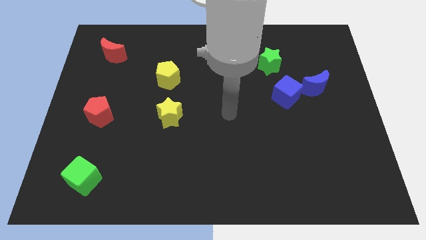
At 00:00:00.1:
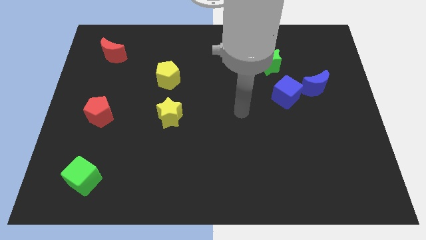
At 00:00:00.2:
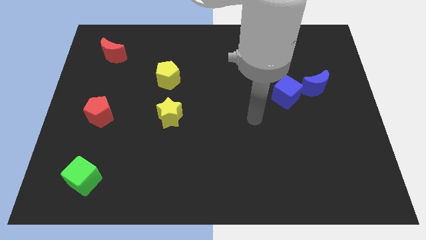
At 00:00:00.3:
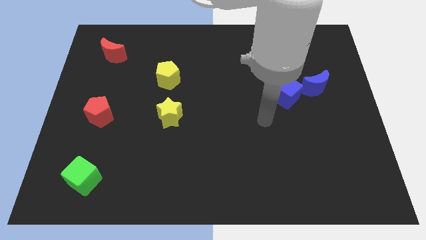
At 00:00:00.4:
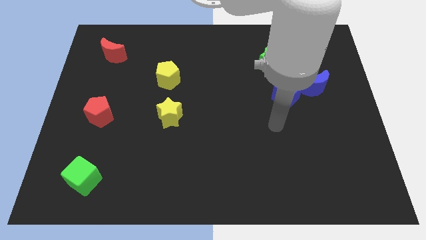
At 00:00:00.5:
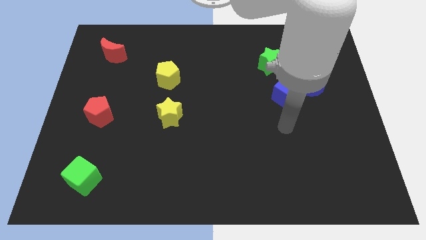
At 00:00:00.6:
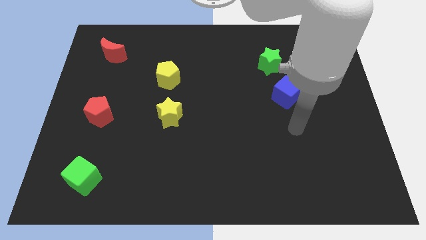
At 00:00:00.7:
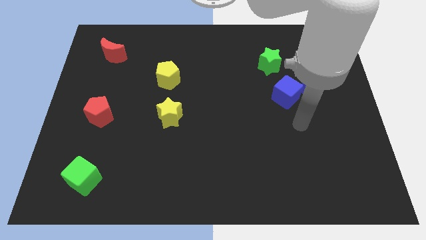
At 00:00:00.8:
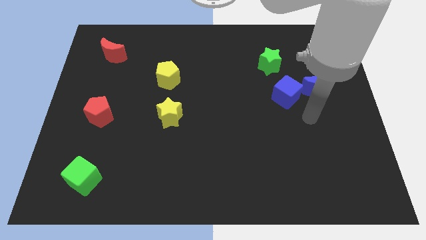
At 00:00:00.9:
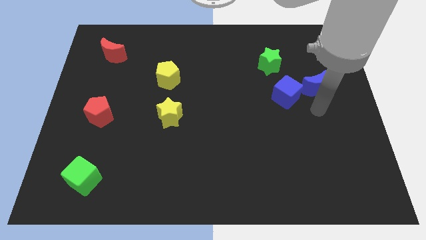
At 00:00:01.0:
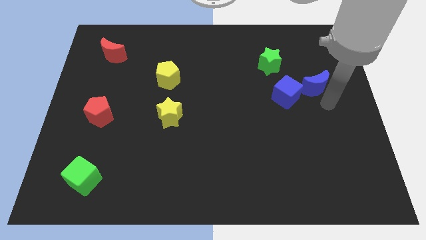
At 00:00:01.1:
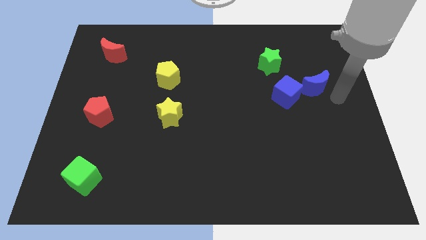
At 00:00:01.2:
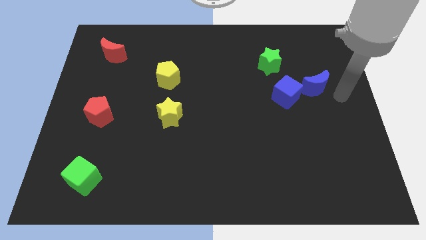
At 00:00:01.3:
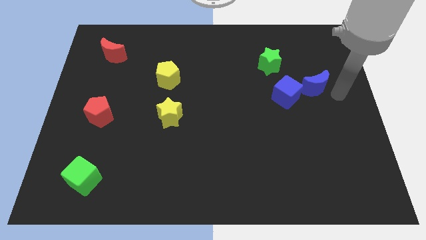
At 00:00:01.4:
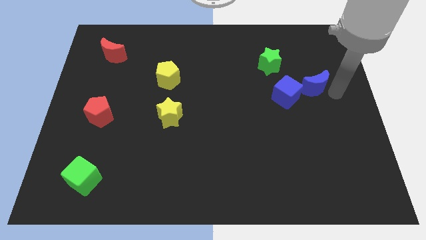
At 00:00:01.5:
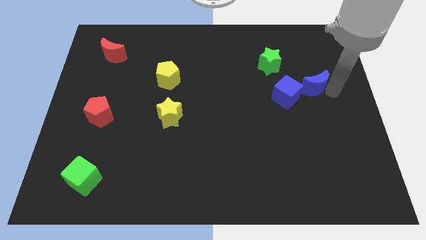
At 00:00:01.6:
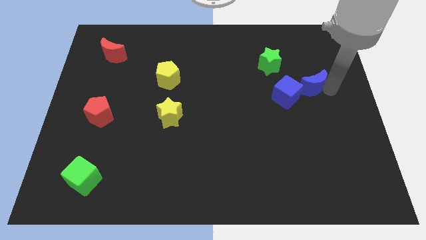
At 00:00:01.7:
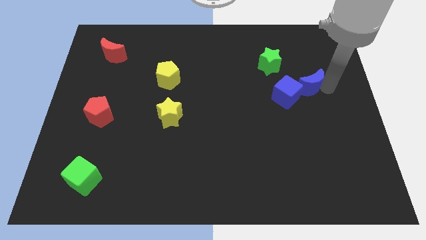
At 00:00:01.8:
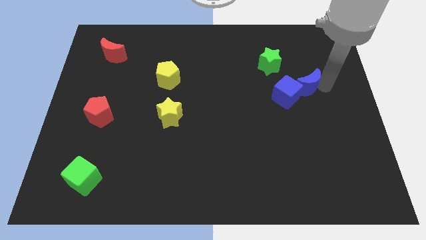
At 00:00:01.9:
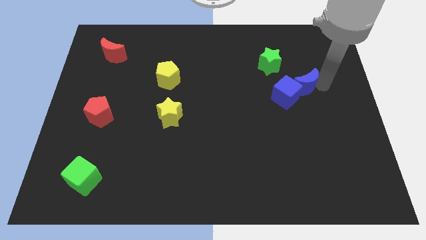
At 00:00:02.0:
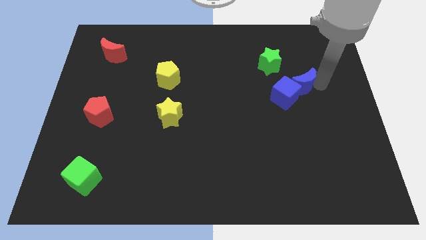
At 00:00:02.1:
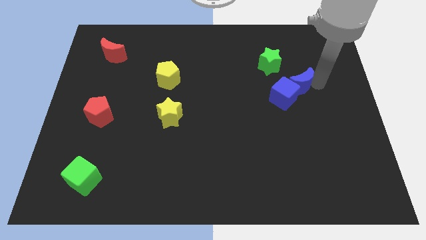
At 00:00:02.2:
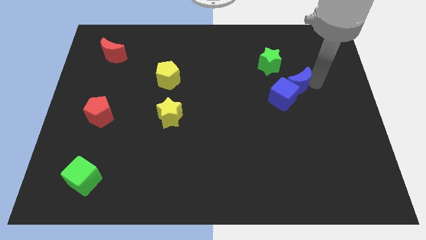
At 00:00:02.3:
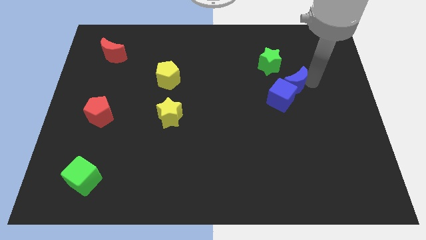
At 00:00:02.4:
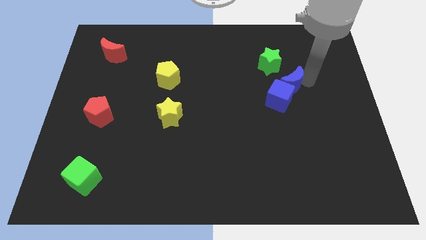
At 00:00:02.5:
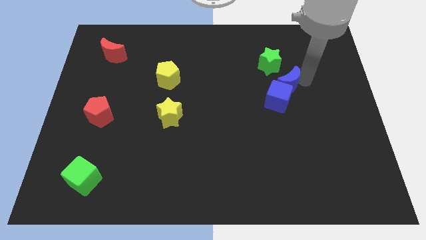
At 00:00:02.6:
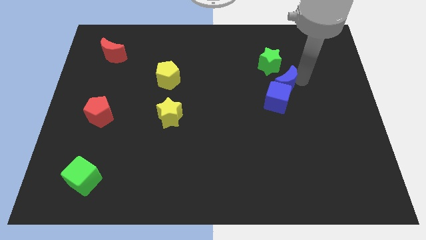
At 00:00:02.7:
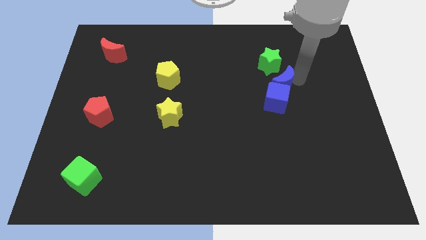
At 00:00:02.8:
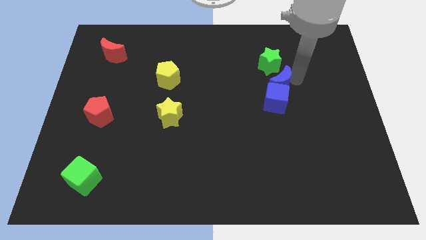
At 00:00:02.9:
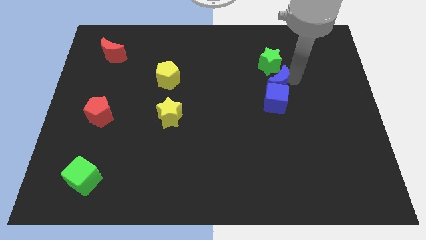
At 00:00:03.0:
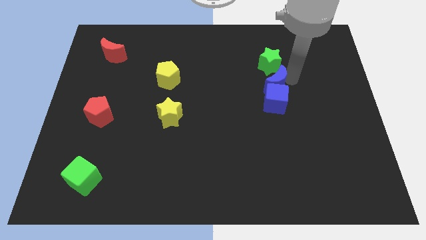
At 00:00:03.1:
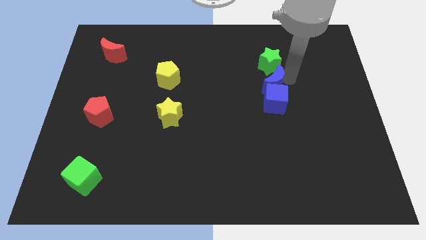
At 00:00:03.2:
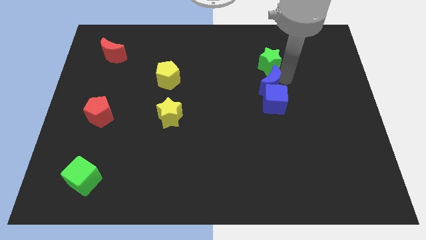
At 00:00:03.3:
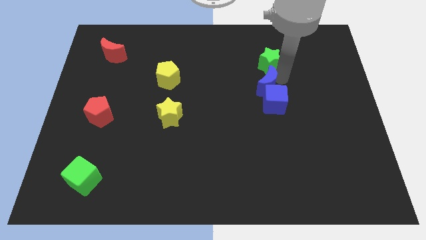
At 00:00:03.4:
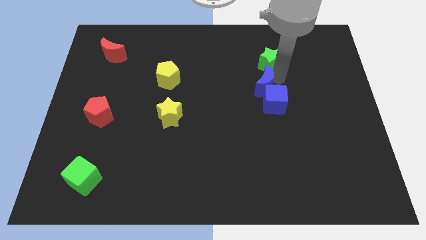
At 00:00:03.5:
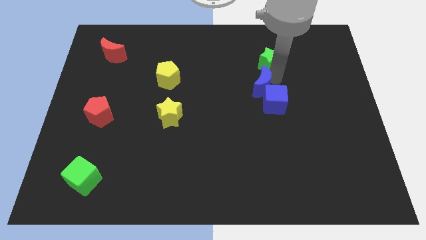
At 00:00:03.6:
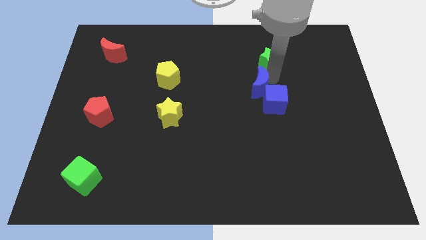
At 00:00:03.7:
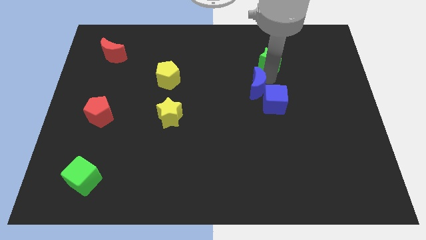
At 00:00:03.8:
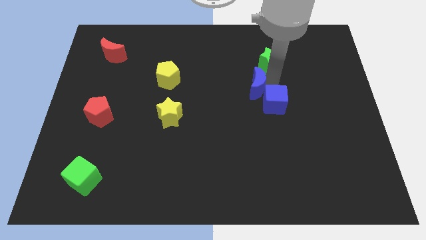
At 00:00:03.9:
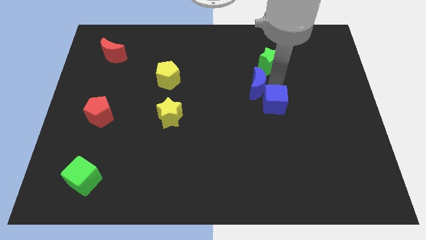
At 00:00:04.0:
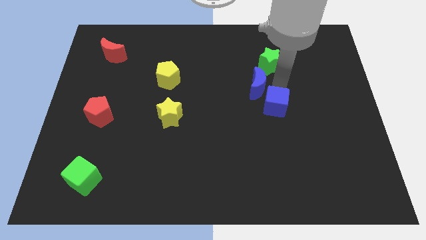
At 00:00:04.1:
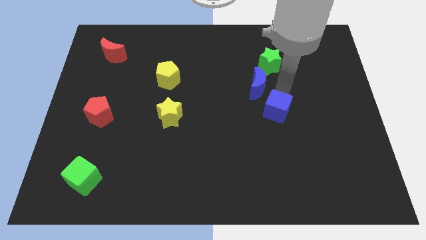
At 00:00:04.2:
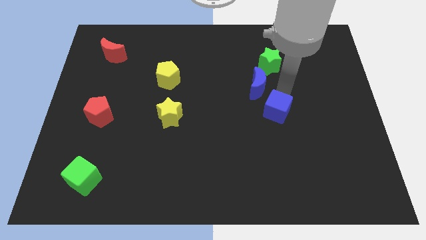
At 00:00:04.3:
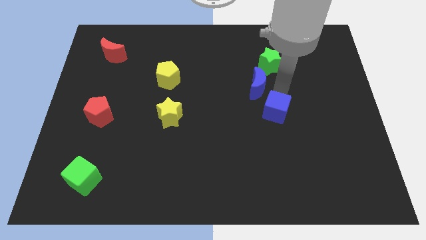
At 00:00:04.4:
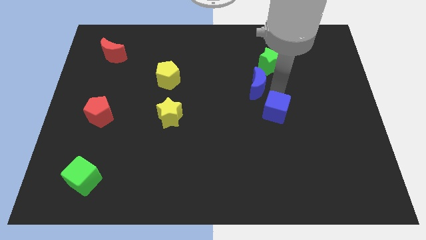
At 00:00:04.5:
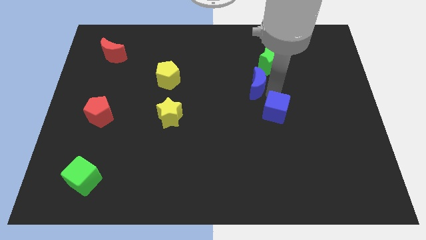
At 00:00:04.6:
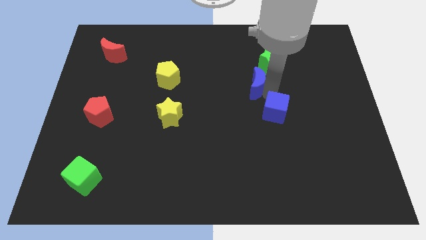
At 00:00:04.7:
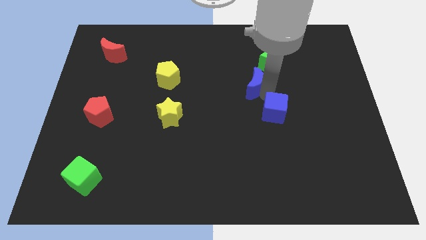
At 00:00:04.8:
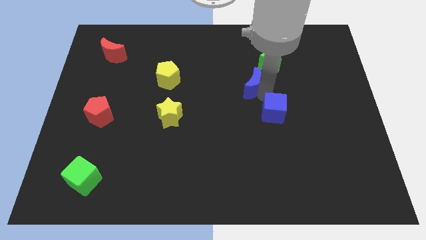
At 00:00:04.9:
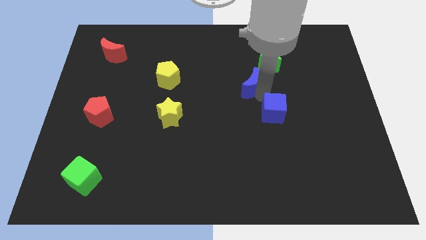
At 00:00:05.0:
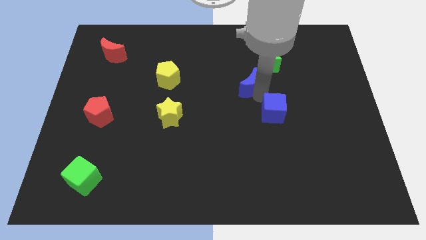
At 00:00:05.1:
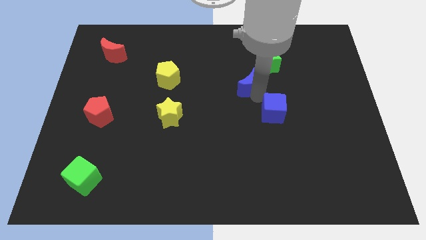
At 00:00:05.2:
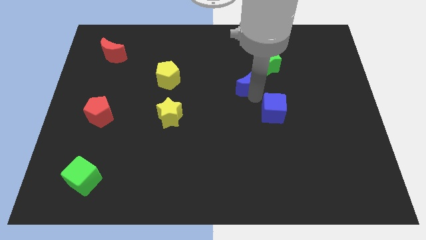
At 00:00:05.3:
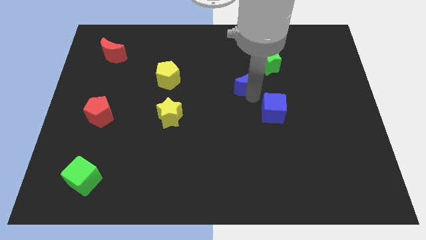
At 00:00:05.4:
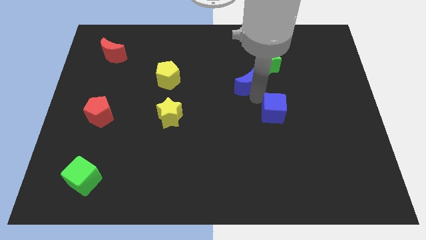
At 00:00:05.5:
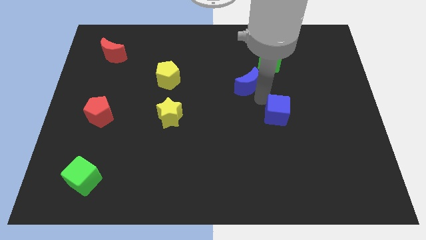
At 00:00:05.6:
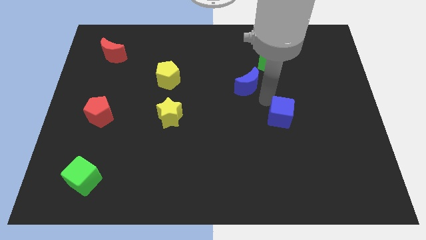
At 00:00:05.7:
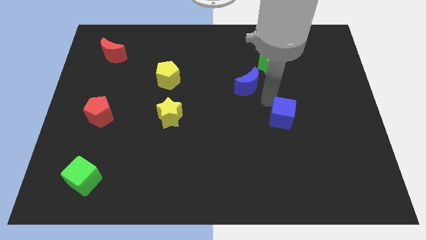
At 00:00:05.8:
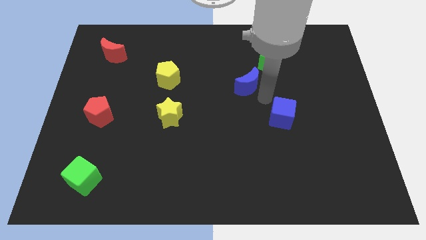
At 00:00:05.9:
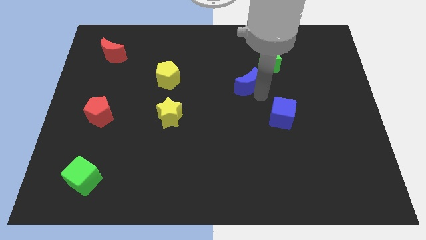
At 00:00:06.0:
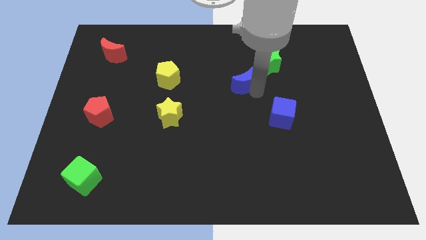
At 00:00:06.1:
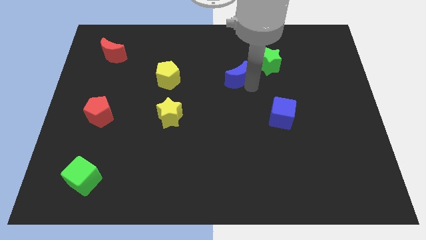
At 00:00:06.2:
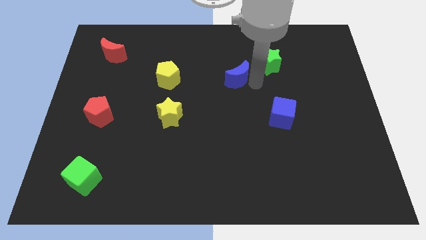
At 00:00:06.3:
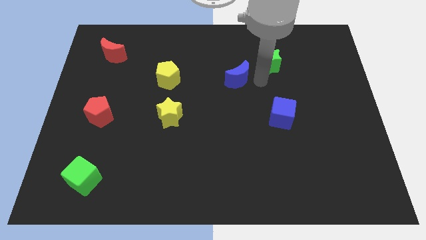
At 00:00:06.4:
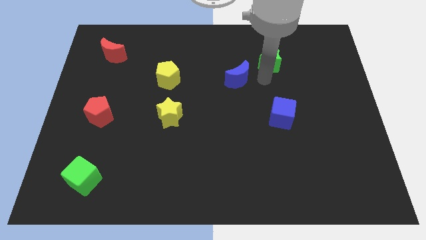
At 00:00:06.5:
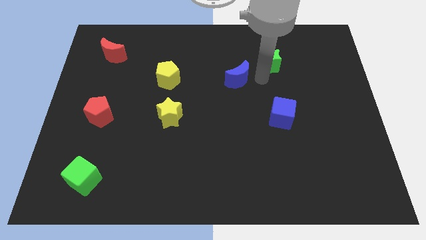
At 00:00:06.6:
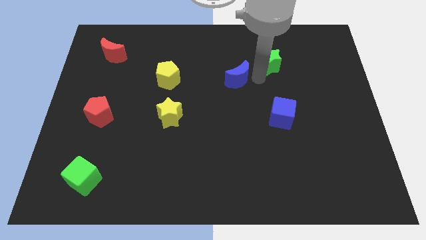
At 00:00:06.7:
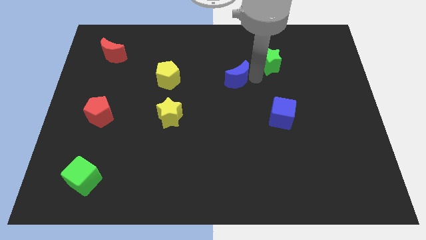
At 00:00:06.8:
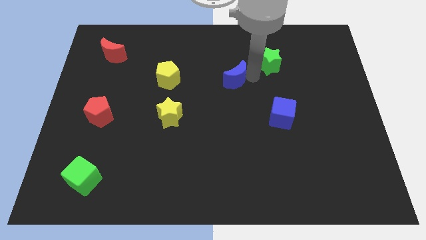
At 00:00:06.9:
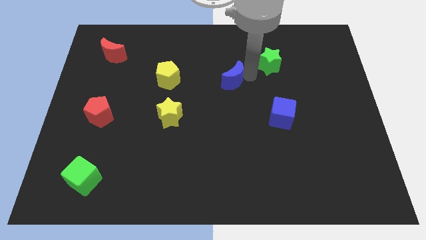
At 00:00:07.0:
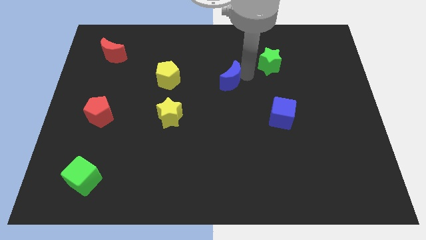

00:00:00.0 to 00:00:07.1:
slide the blue moon to the right side of the yellow pentagon
